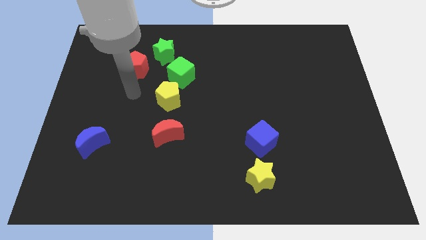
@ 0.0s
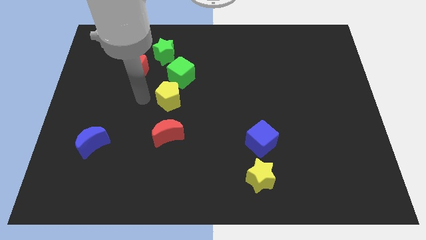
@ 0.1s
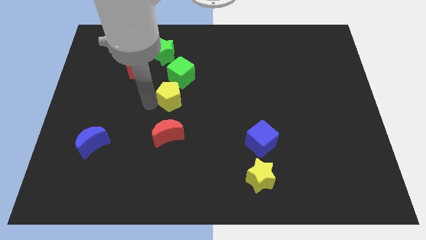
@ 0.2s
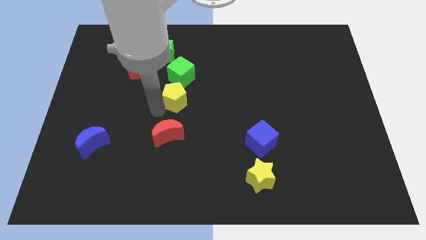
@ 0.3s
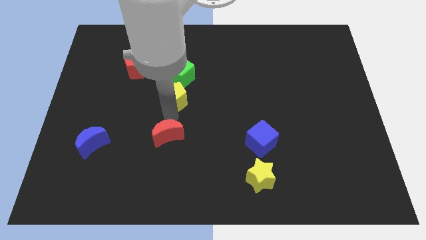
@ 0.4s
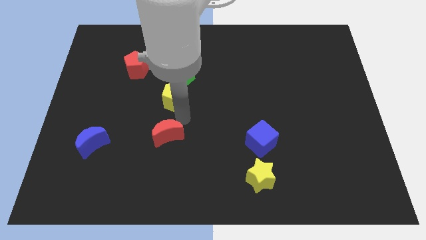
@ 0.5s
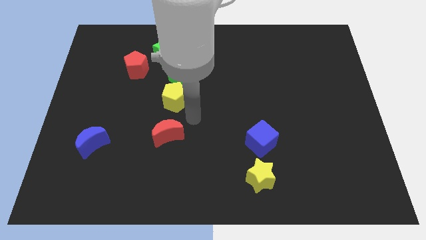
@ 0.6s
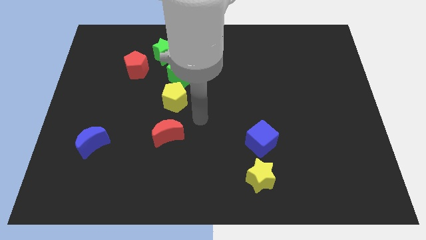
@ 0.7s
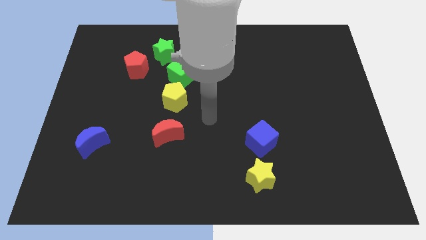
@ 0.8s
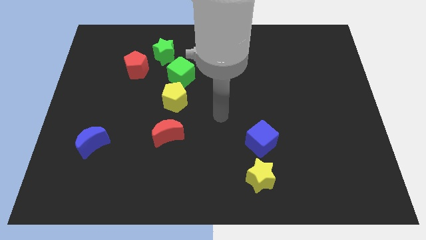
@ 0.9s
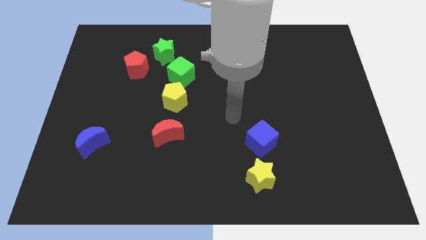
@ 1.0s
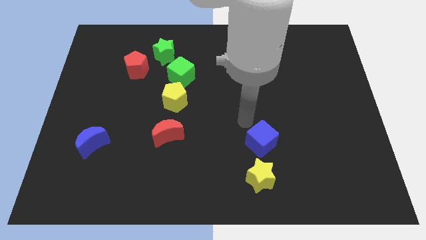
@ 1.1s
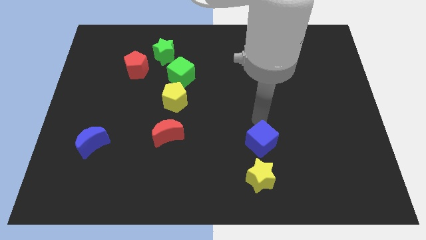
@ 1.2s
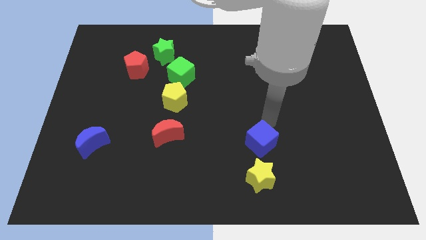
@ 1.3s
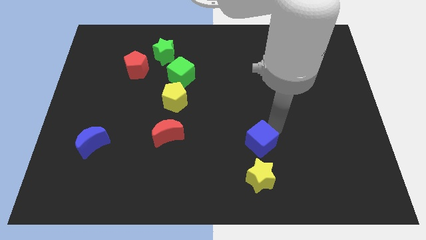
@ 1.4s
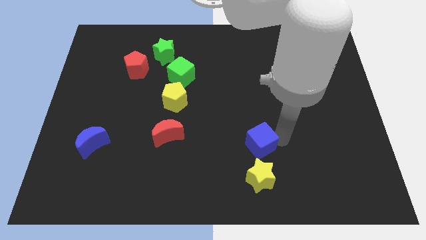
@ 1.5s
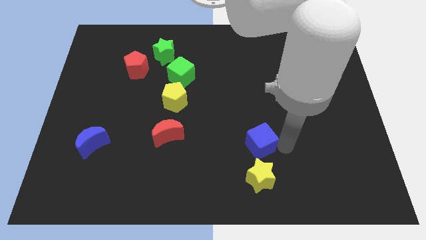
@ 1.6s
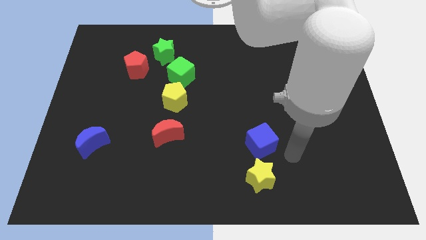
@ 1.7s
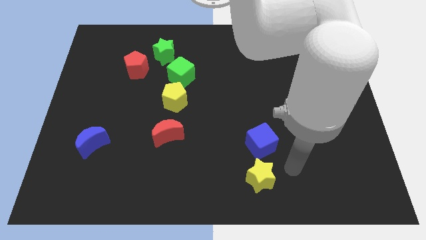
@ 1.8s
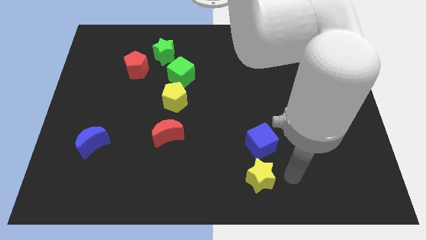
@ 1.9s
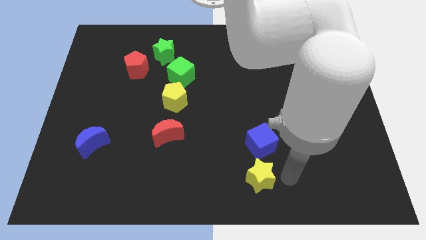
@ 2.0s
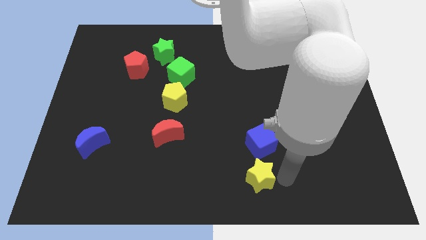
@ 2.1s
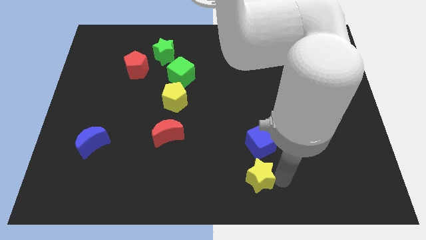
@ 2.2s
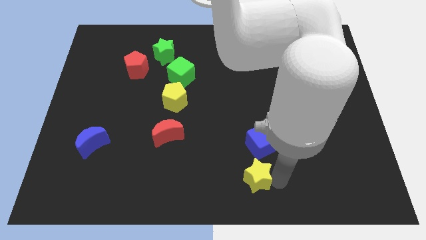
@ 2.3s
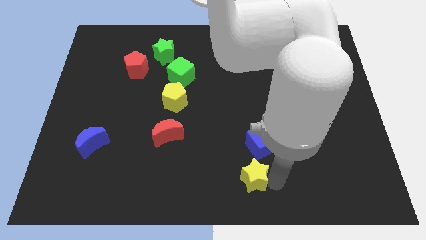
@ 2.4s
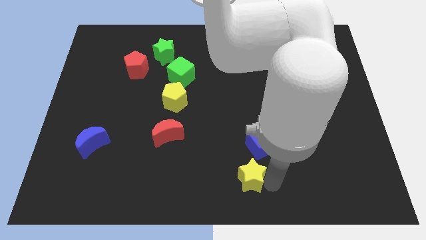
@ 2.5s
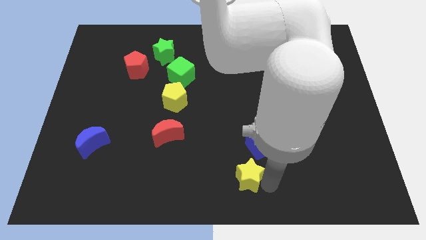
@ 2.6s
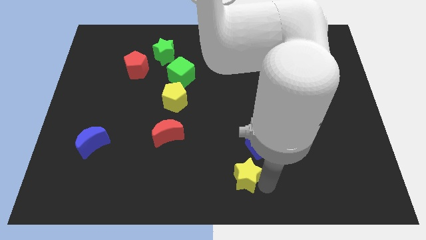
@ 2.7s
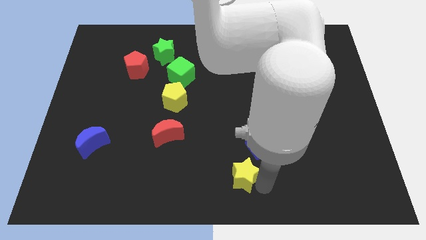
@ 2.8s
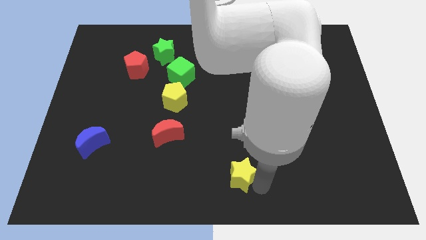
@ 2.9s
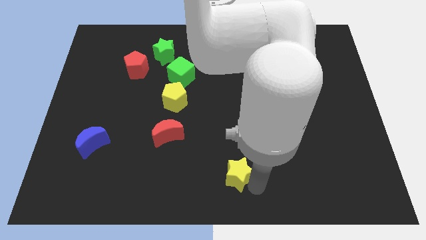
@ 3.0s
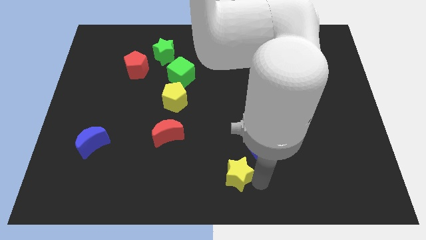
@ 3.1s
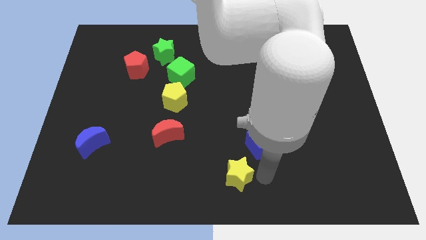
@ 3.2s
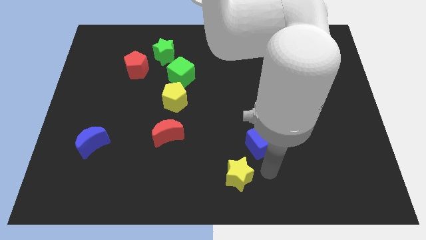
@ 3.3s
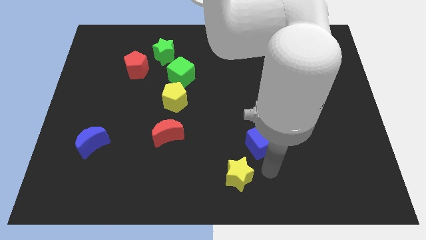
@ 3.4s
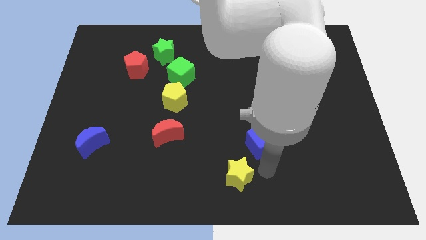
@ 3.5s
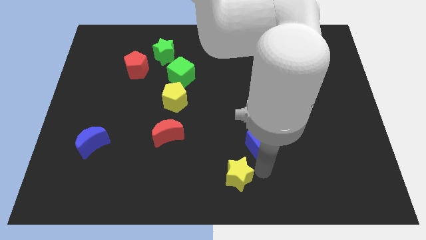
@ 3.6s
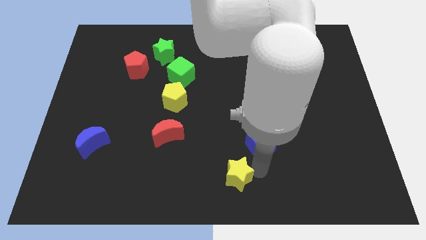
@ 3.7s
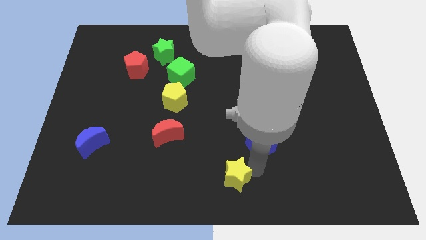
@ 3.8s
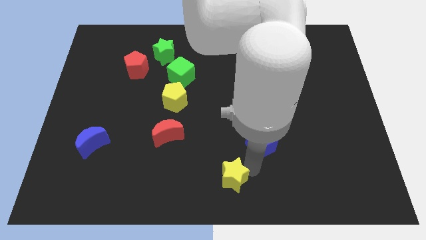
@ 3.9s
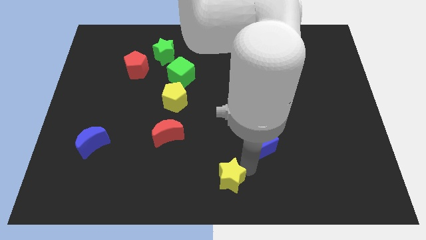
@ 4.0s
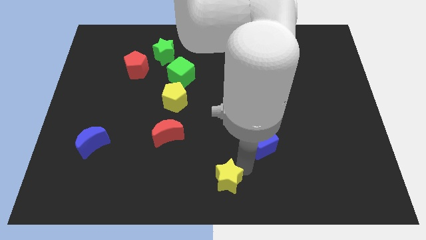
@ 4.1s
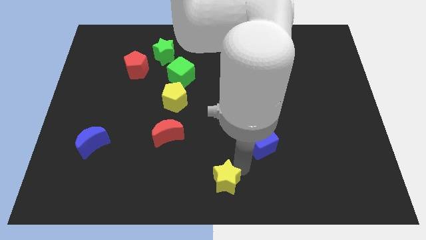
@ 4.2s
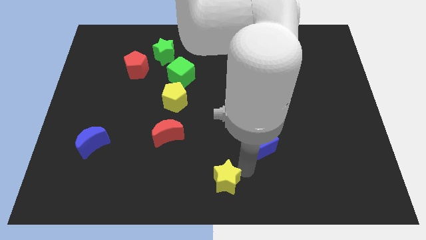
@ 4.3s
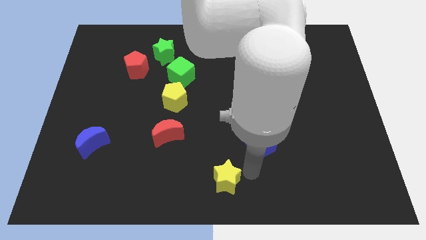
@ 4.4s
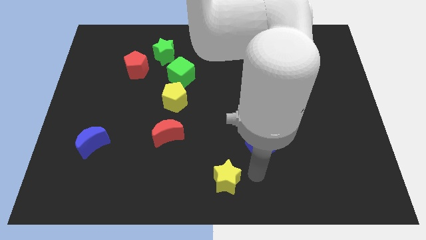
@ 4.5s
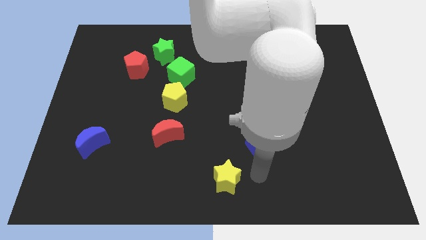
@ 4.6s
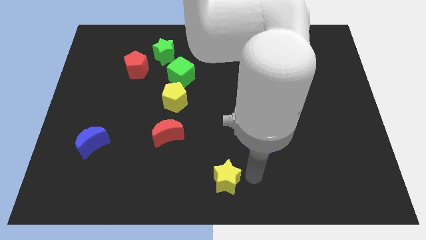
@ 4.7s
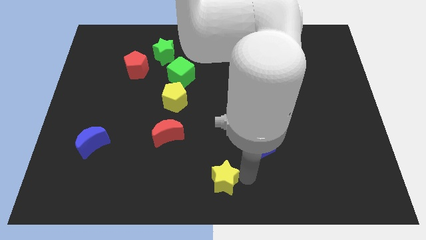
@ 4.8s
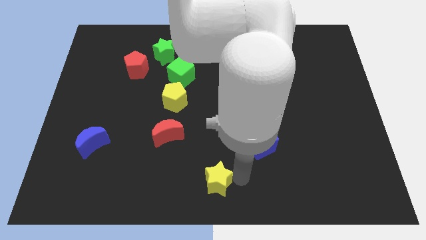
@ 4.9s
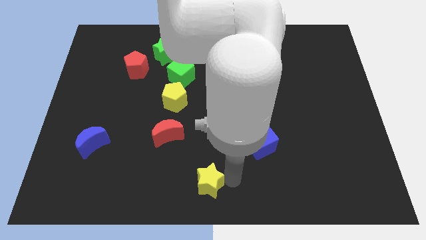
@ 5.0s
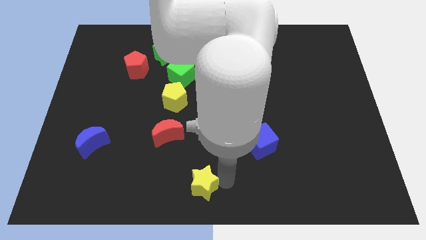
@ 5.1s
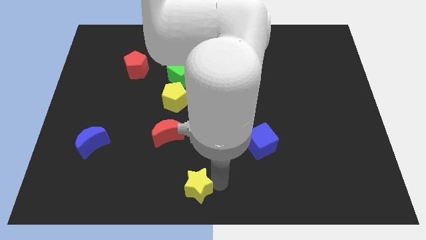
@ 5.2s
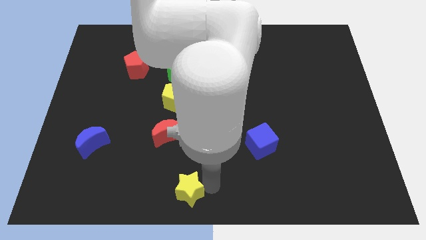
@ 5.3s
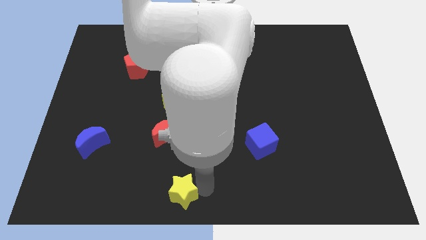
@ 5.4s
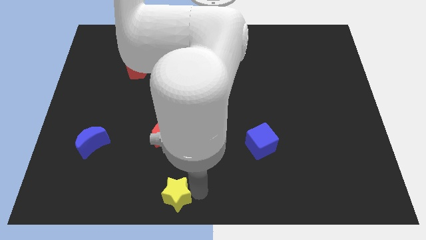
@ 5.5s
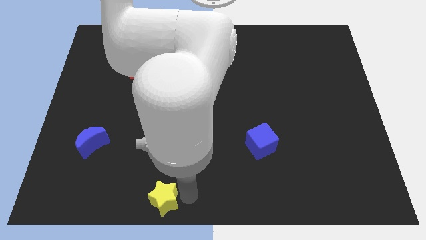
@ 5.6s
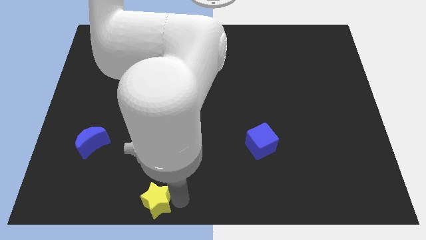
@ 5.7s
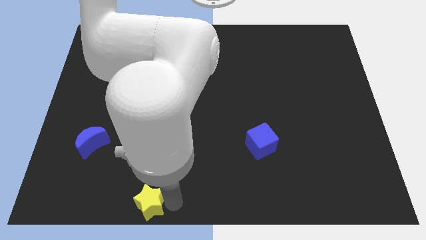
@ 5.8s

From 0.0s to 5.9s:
push the yellow star to the left

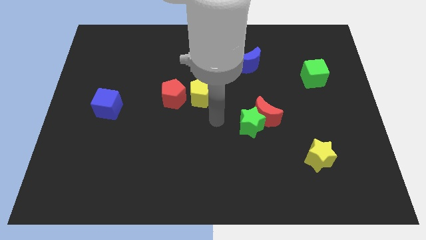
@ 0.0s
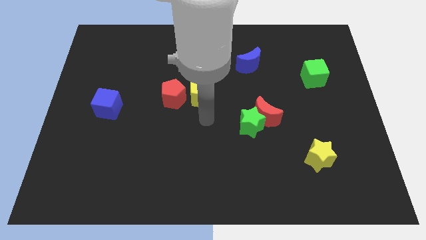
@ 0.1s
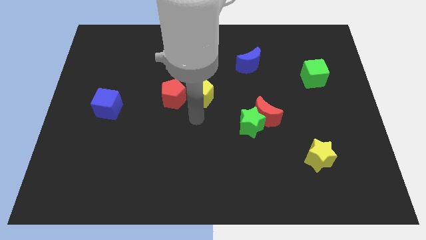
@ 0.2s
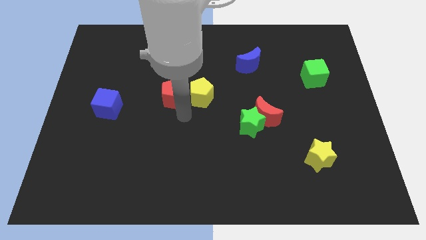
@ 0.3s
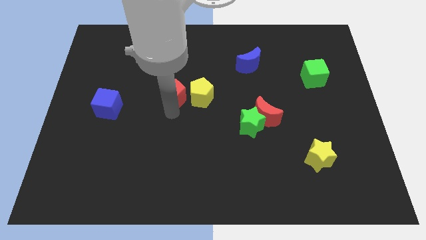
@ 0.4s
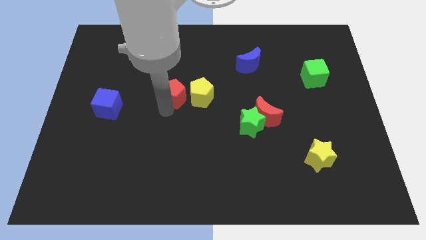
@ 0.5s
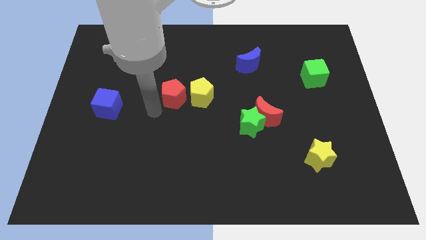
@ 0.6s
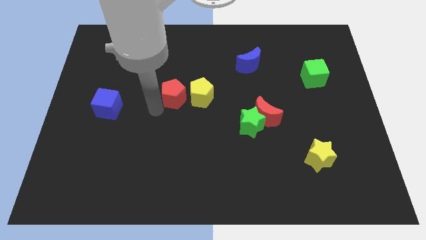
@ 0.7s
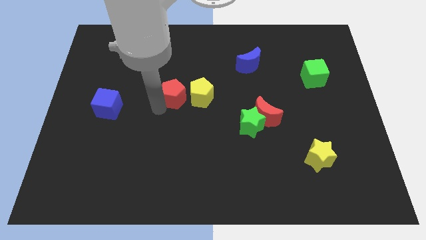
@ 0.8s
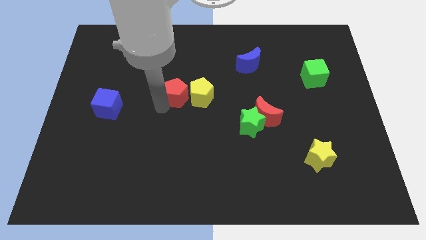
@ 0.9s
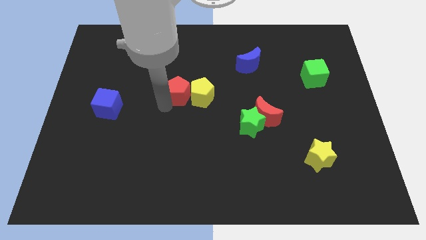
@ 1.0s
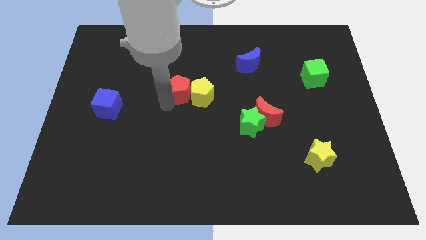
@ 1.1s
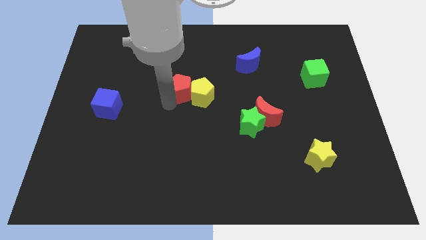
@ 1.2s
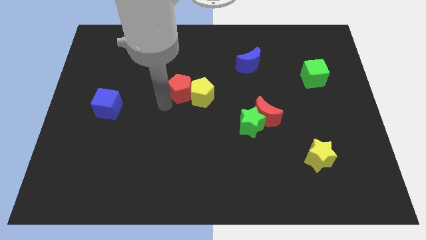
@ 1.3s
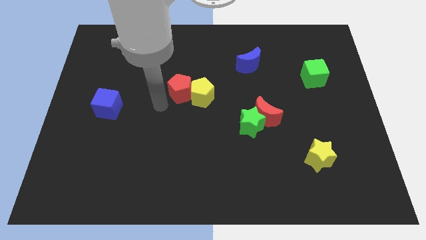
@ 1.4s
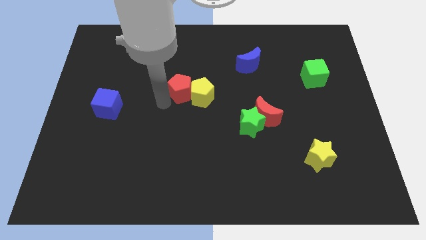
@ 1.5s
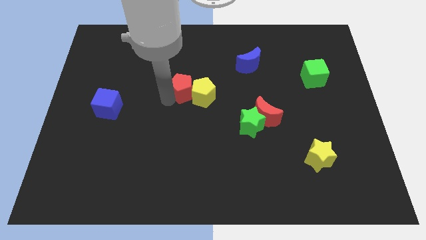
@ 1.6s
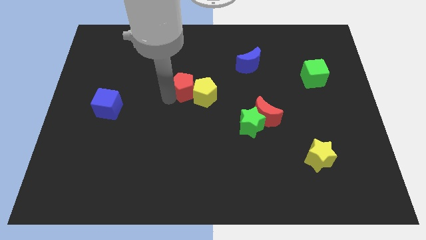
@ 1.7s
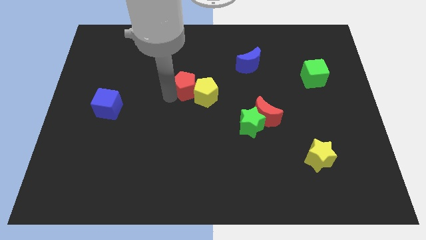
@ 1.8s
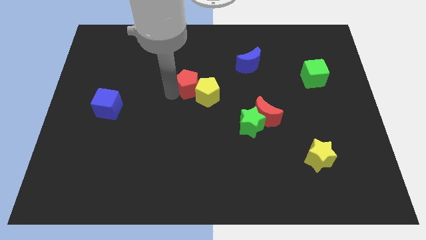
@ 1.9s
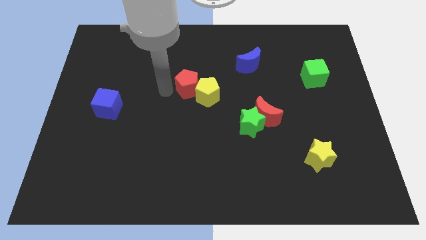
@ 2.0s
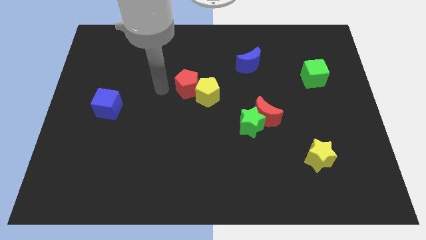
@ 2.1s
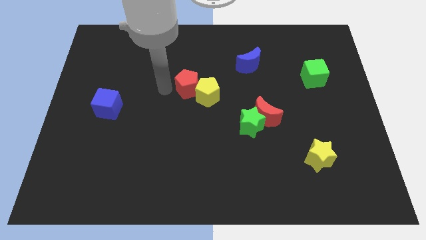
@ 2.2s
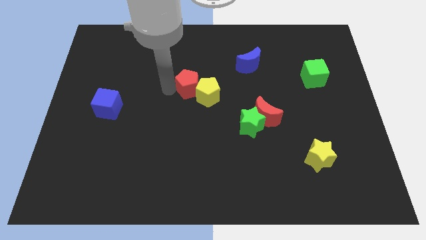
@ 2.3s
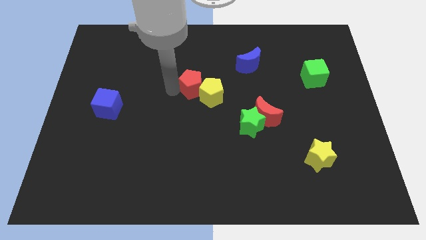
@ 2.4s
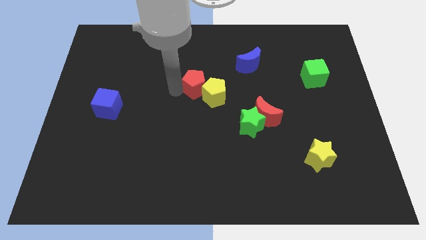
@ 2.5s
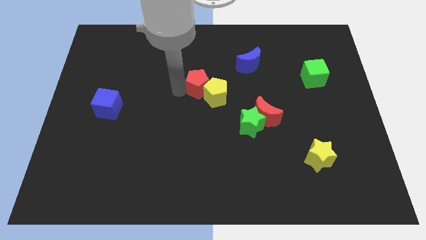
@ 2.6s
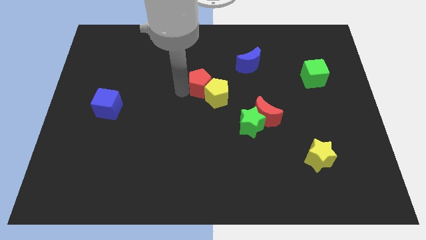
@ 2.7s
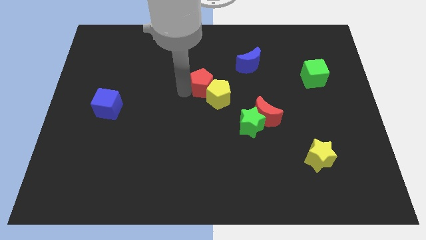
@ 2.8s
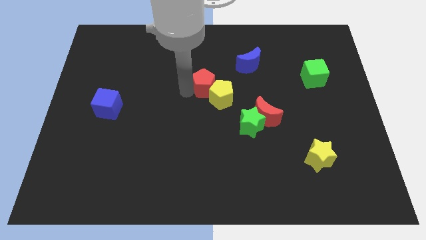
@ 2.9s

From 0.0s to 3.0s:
slightly slide the red pentagon right
